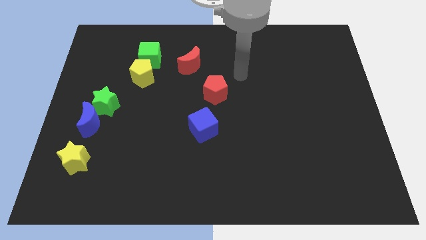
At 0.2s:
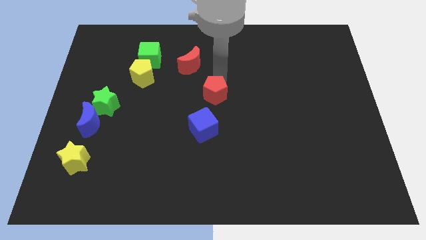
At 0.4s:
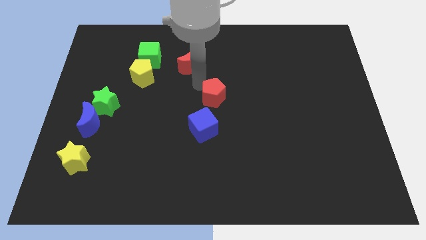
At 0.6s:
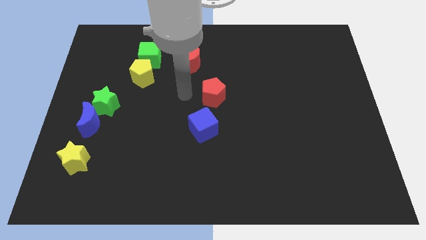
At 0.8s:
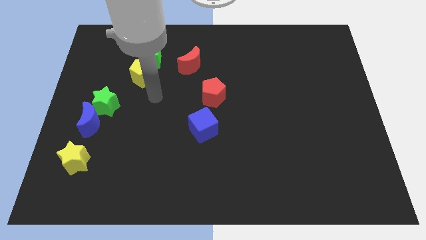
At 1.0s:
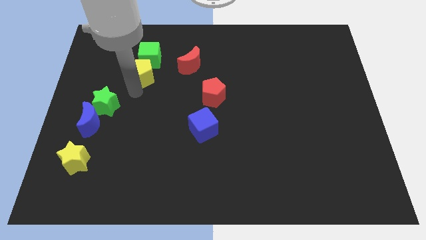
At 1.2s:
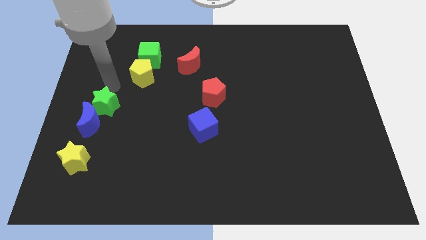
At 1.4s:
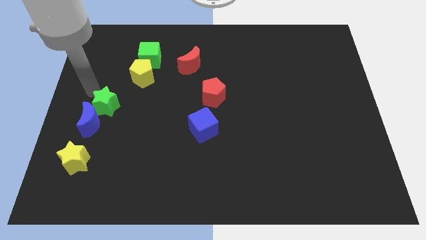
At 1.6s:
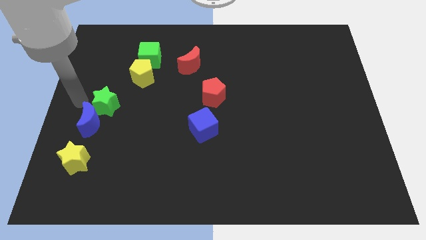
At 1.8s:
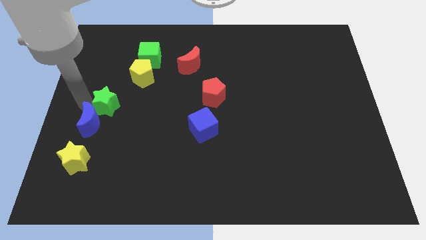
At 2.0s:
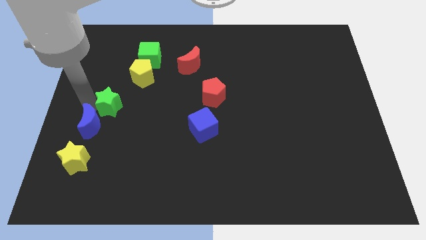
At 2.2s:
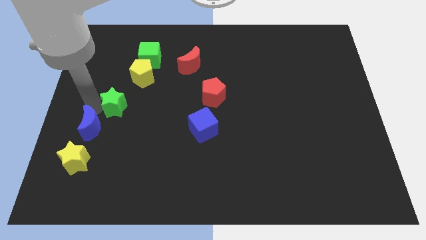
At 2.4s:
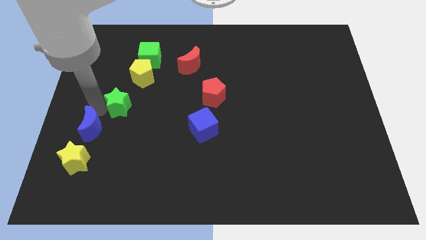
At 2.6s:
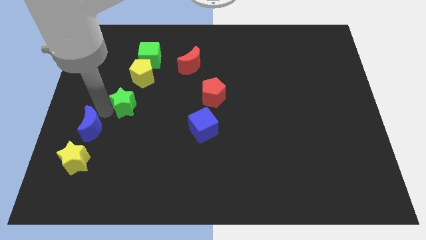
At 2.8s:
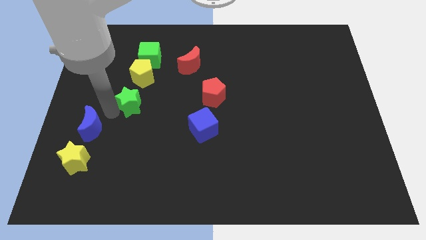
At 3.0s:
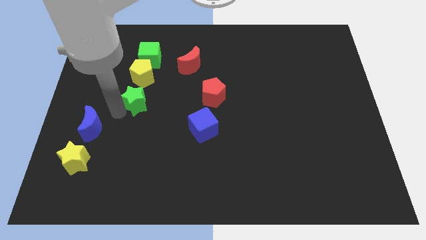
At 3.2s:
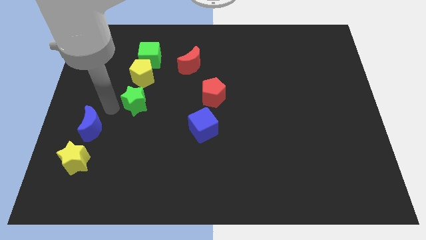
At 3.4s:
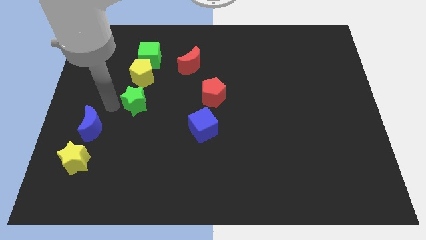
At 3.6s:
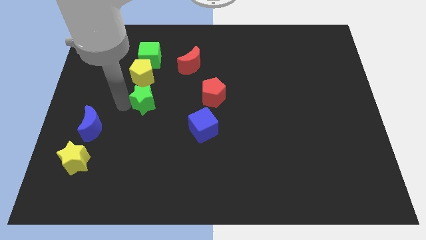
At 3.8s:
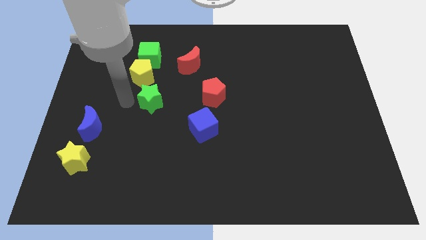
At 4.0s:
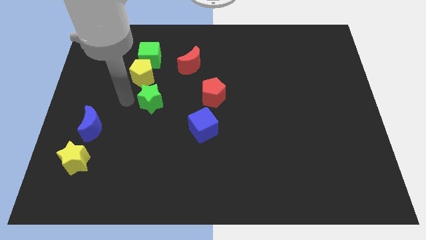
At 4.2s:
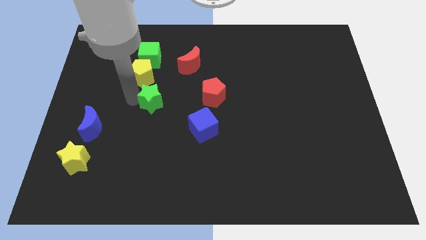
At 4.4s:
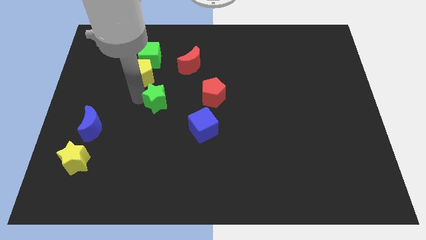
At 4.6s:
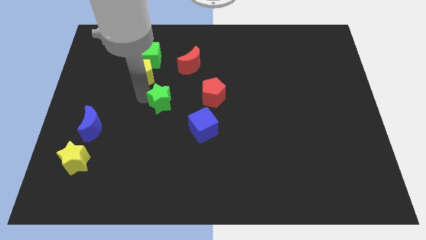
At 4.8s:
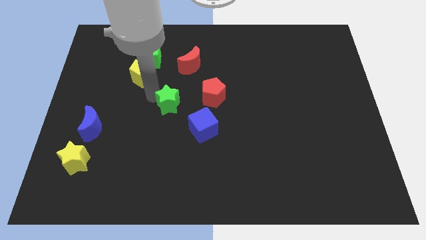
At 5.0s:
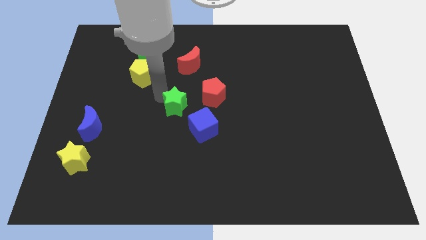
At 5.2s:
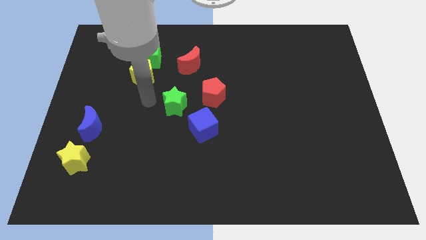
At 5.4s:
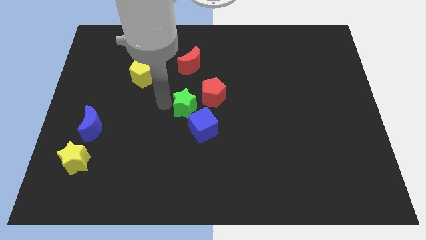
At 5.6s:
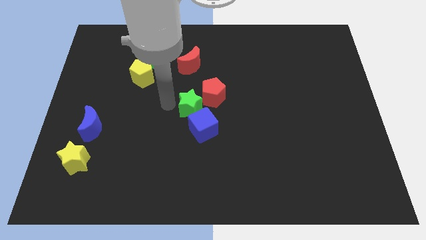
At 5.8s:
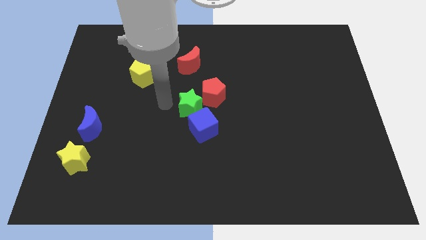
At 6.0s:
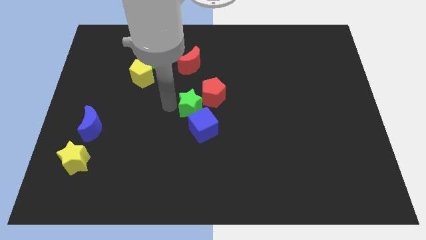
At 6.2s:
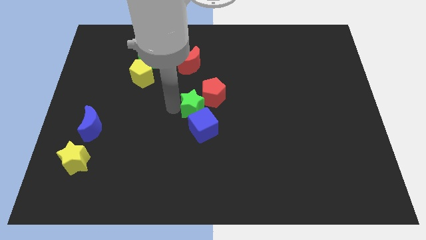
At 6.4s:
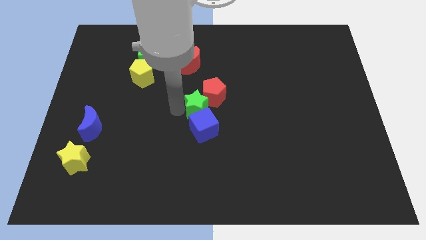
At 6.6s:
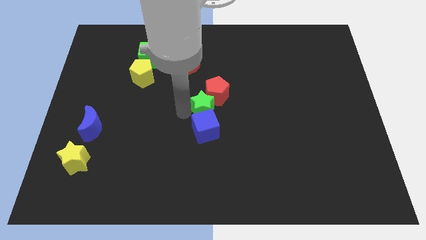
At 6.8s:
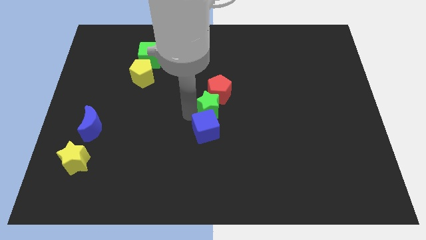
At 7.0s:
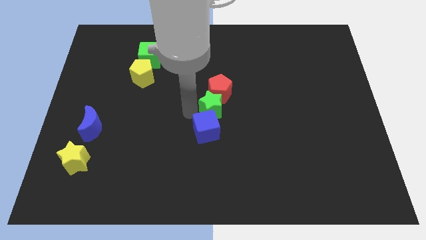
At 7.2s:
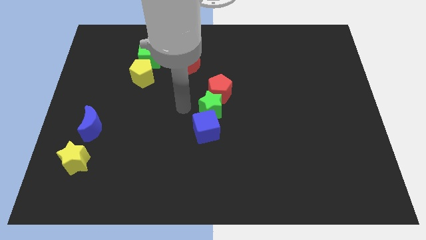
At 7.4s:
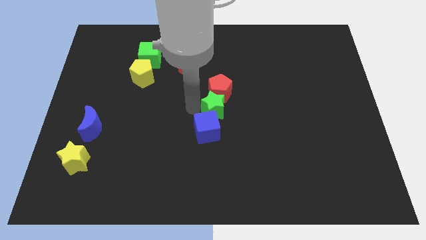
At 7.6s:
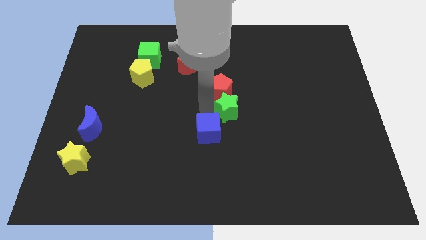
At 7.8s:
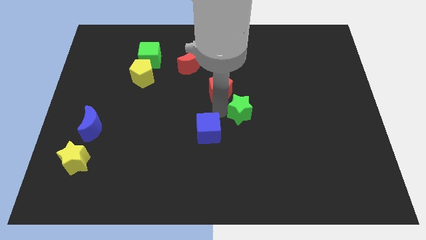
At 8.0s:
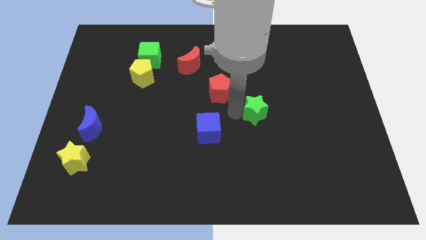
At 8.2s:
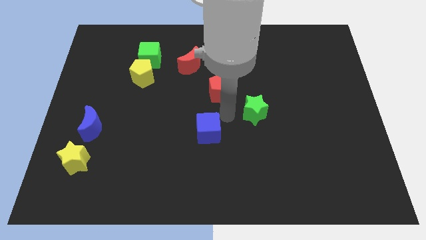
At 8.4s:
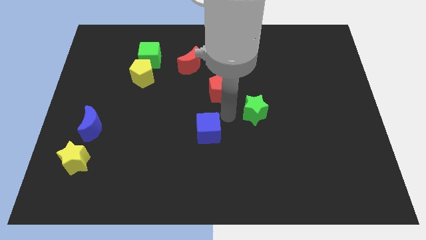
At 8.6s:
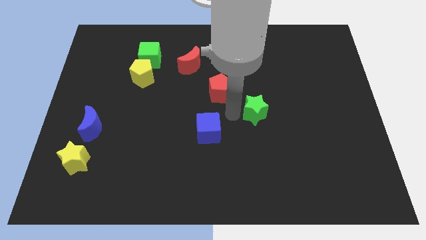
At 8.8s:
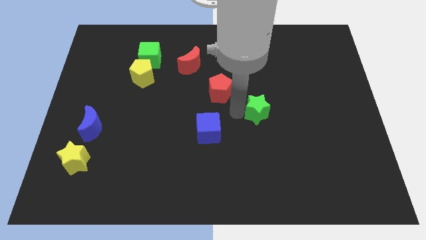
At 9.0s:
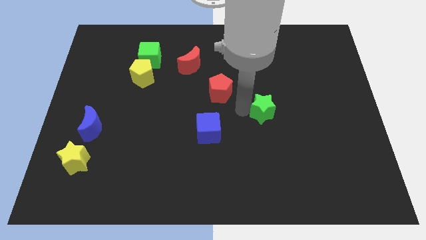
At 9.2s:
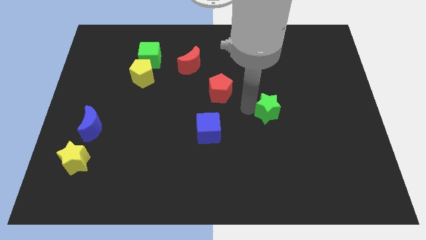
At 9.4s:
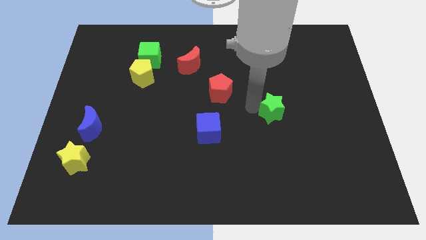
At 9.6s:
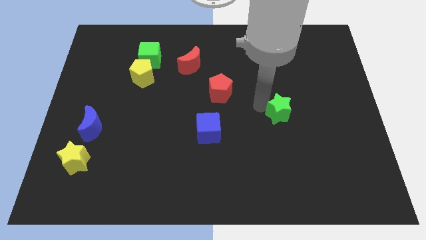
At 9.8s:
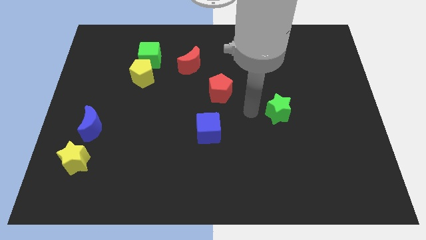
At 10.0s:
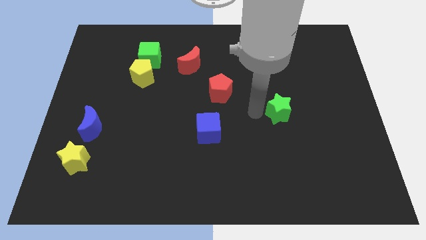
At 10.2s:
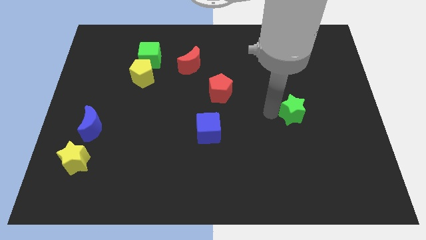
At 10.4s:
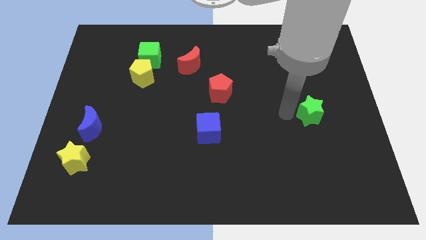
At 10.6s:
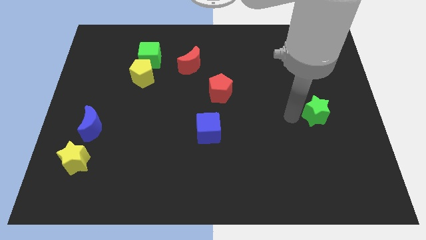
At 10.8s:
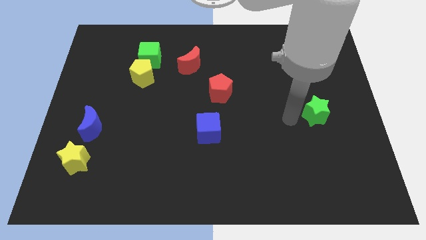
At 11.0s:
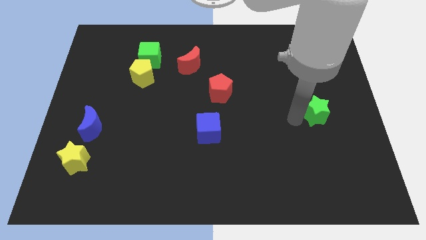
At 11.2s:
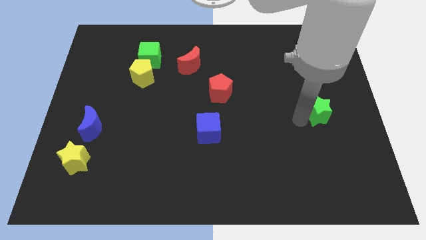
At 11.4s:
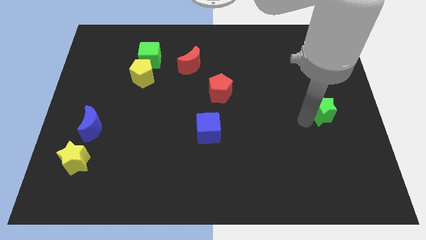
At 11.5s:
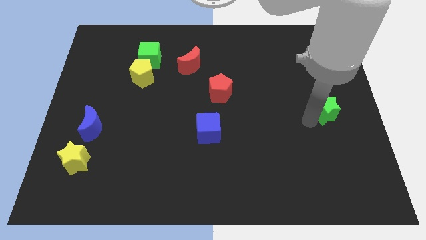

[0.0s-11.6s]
put the green star to the right side of the board

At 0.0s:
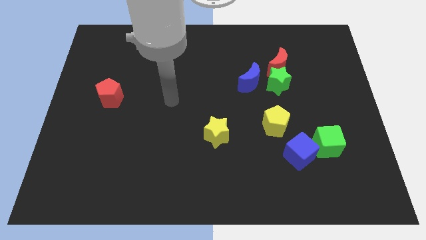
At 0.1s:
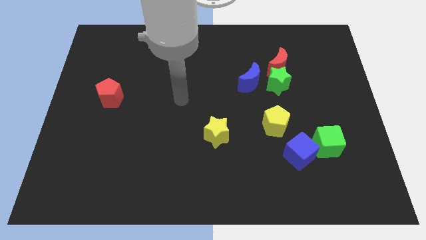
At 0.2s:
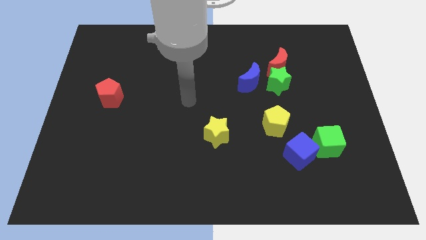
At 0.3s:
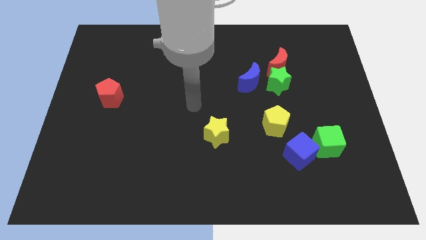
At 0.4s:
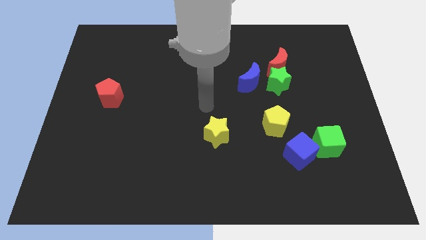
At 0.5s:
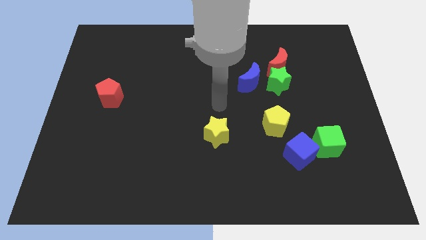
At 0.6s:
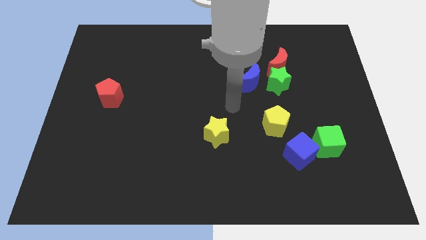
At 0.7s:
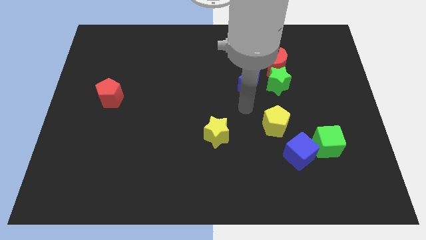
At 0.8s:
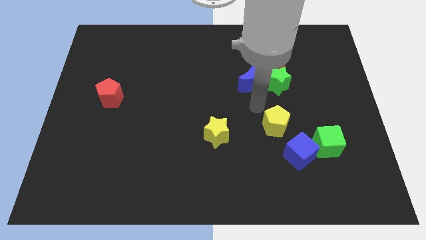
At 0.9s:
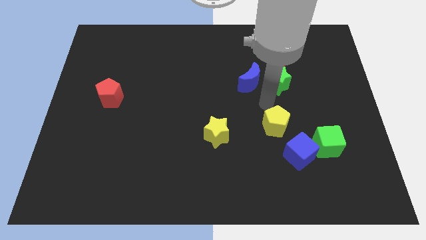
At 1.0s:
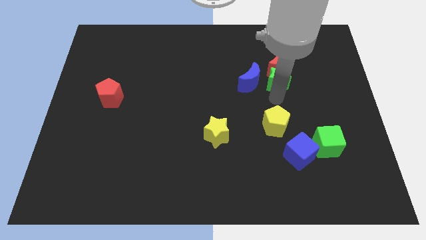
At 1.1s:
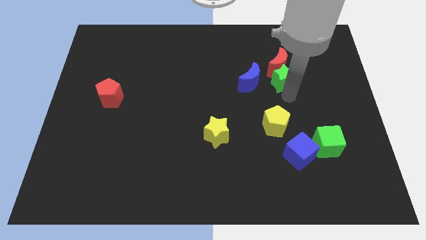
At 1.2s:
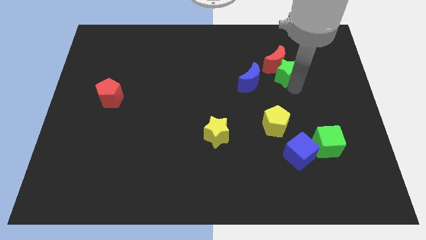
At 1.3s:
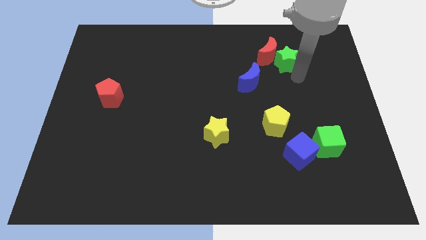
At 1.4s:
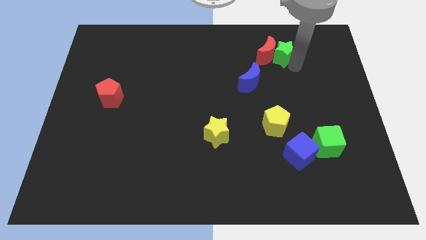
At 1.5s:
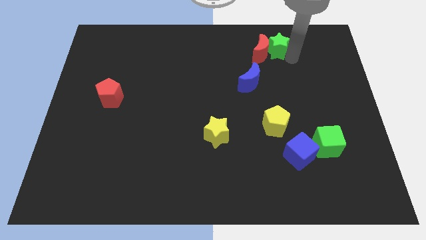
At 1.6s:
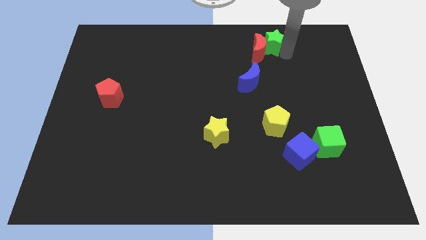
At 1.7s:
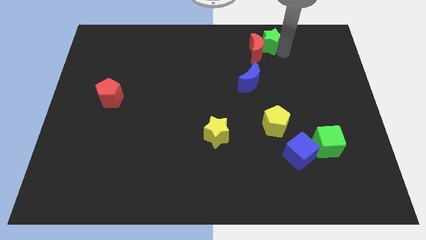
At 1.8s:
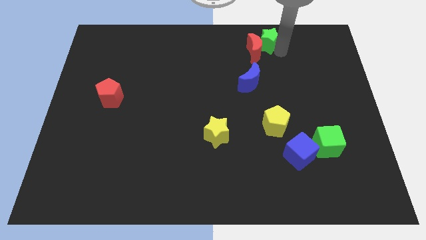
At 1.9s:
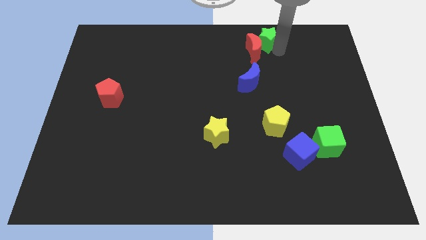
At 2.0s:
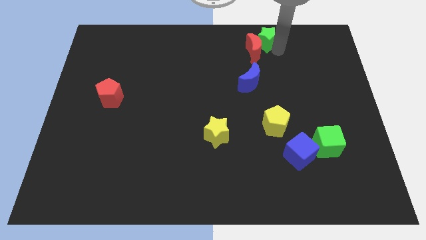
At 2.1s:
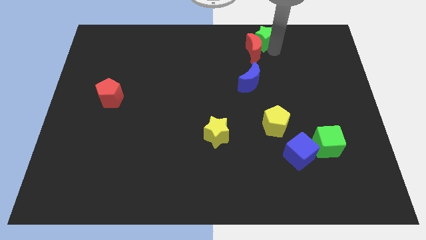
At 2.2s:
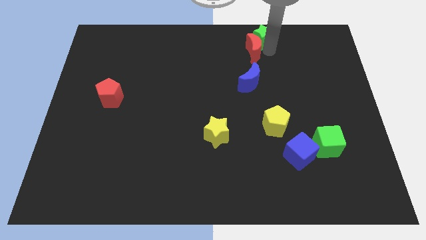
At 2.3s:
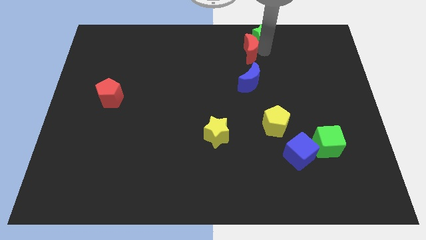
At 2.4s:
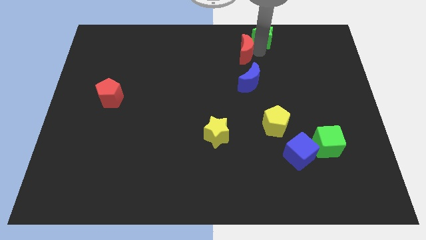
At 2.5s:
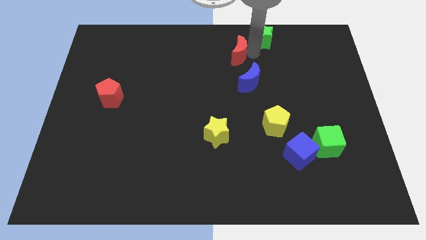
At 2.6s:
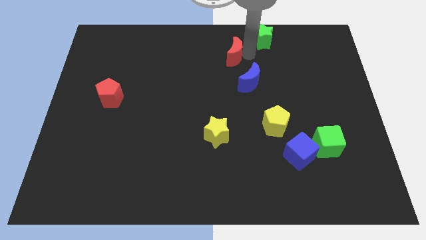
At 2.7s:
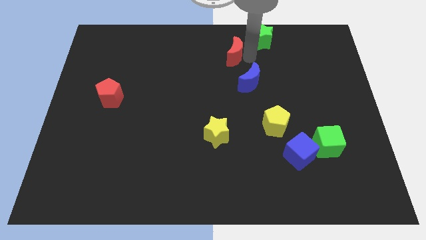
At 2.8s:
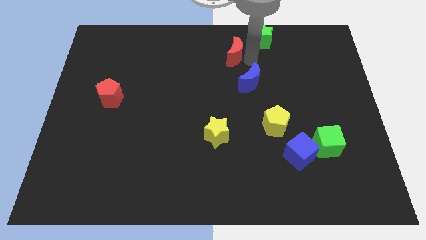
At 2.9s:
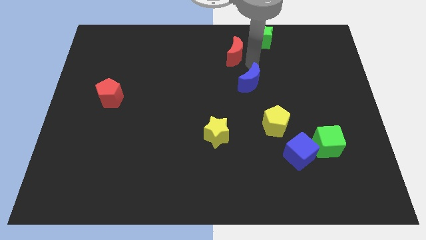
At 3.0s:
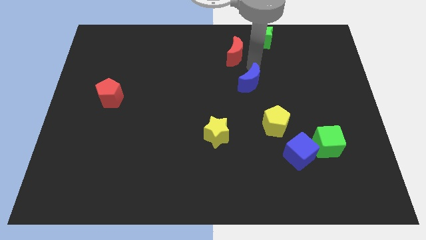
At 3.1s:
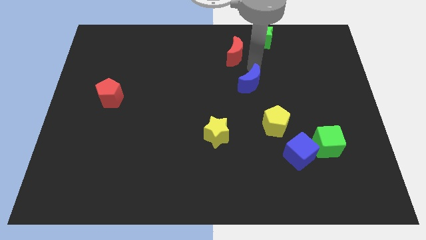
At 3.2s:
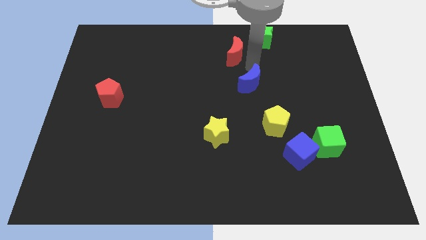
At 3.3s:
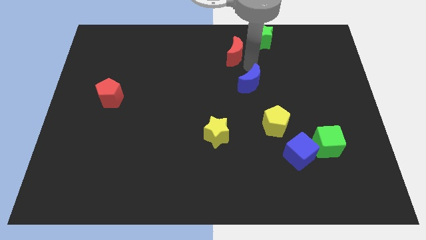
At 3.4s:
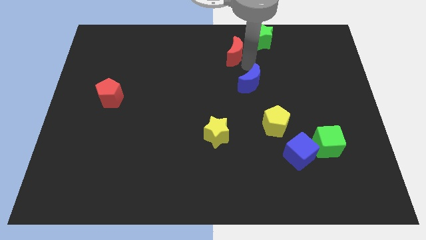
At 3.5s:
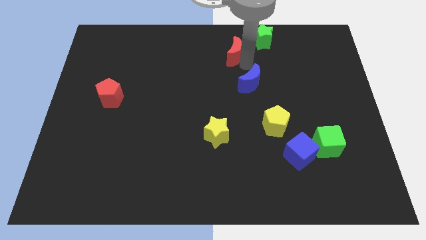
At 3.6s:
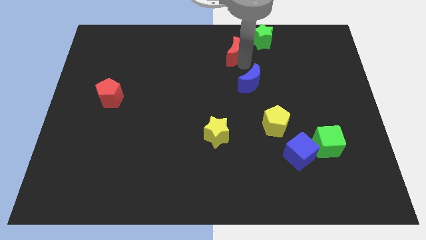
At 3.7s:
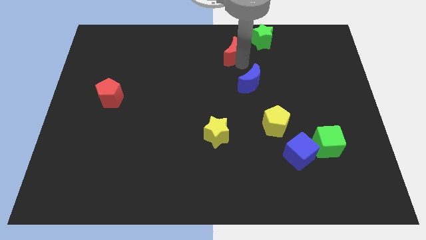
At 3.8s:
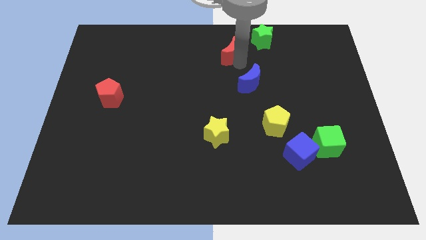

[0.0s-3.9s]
put the red moon to the top
